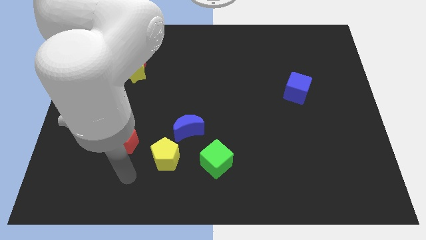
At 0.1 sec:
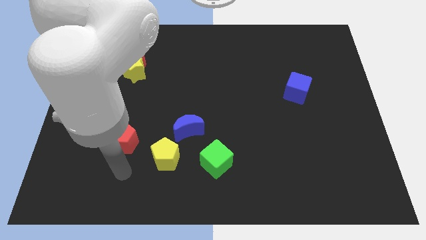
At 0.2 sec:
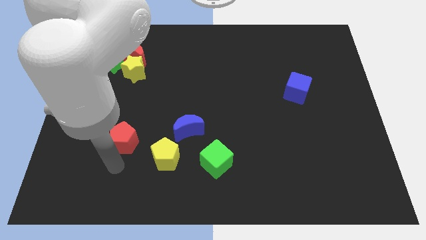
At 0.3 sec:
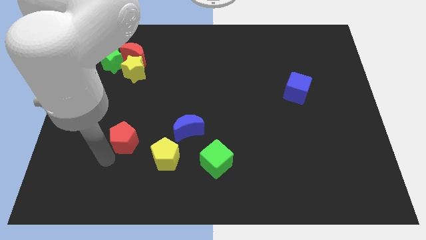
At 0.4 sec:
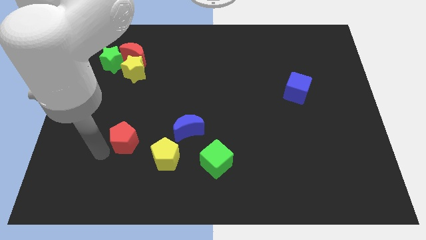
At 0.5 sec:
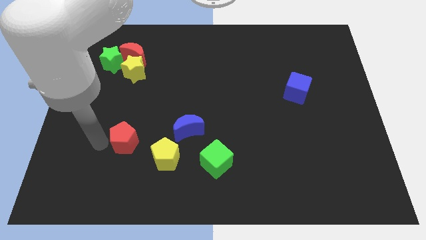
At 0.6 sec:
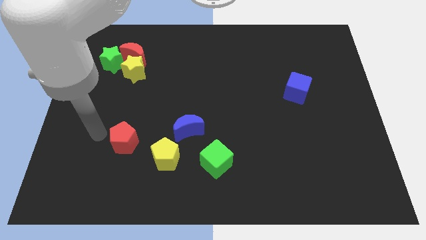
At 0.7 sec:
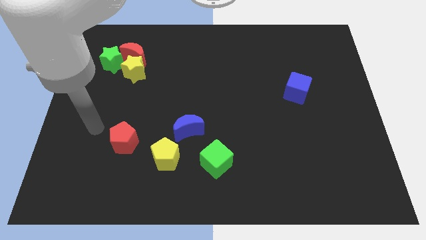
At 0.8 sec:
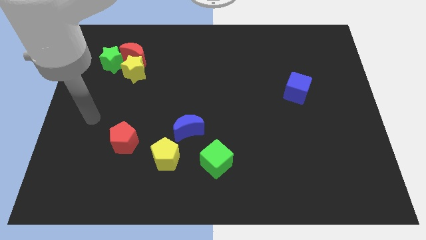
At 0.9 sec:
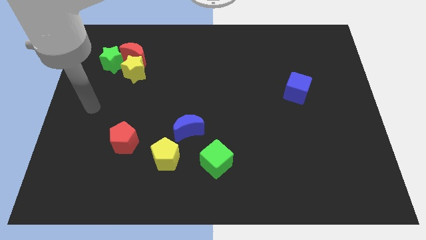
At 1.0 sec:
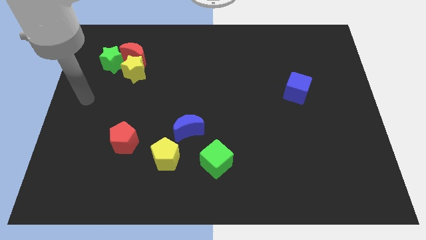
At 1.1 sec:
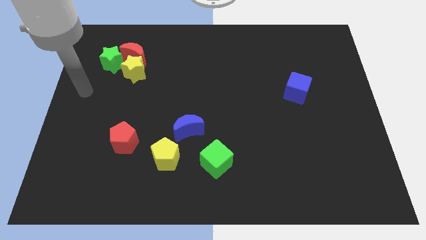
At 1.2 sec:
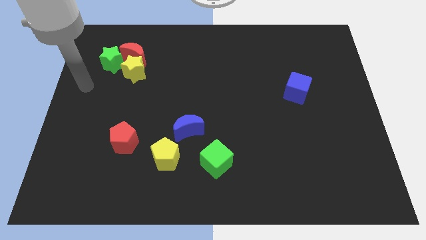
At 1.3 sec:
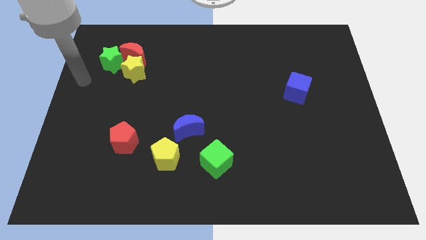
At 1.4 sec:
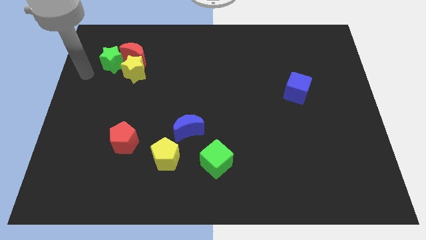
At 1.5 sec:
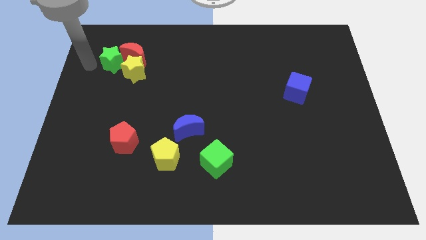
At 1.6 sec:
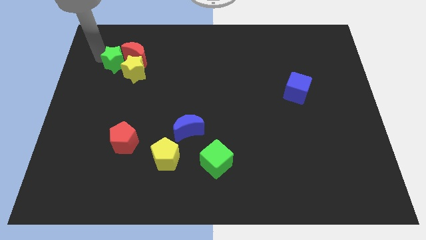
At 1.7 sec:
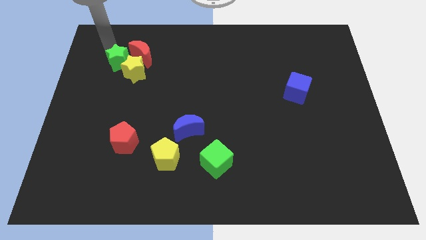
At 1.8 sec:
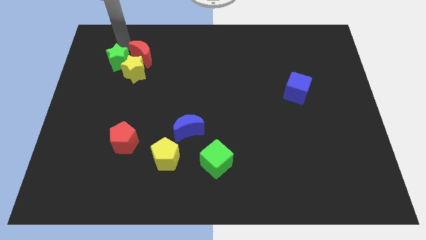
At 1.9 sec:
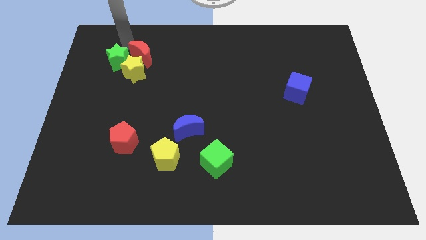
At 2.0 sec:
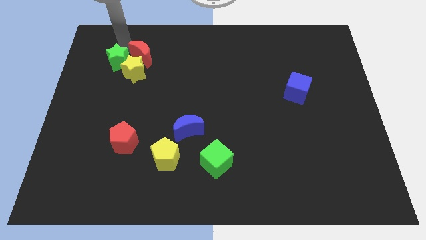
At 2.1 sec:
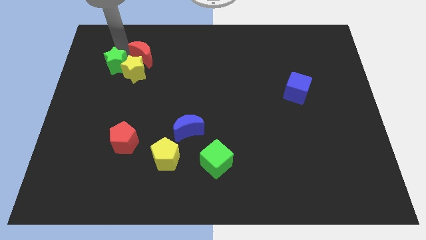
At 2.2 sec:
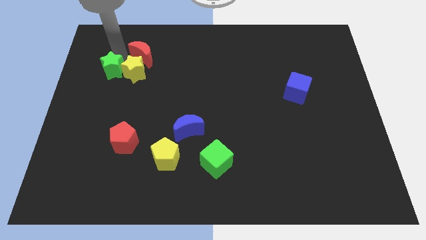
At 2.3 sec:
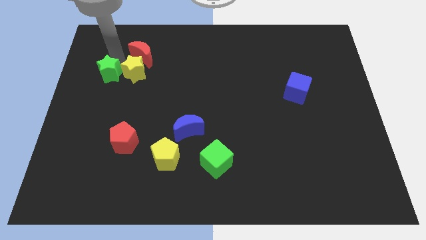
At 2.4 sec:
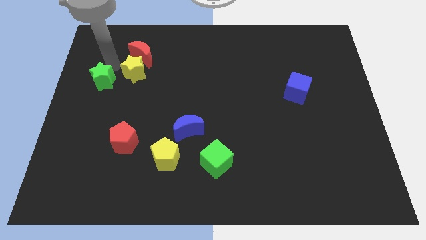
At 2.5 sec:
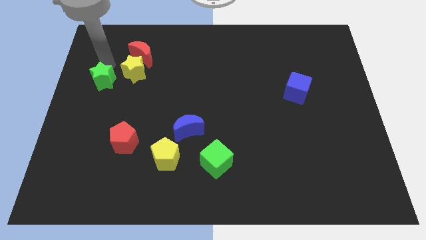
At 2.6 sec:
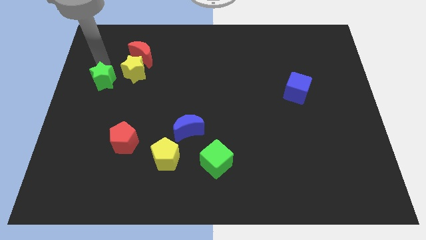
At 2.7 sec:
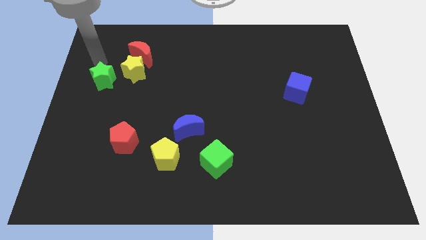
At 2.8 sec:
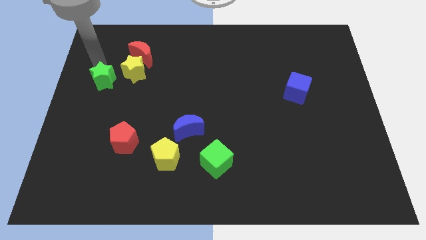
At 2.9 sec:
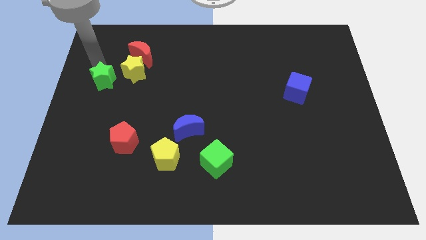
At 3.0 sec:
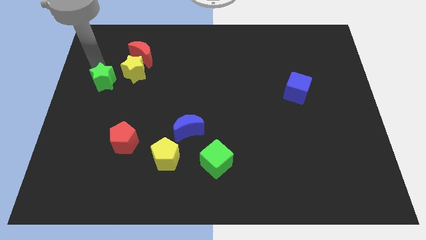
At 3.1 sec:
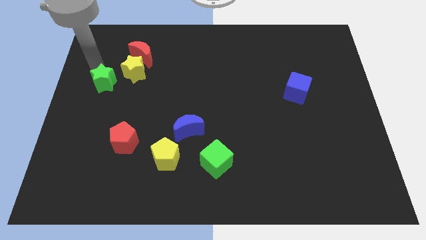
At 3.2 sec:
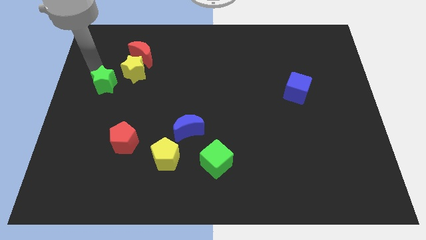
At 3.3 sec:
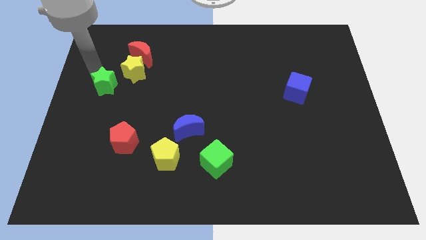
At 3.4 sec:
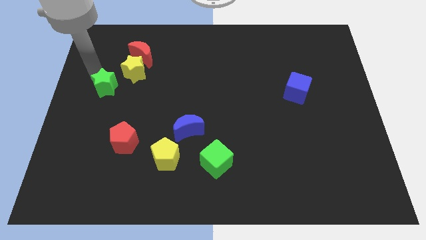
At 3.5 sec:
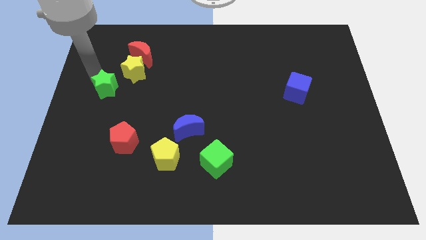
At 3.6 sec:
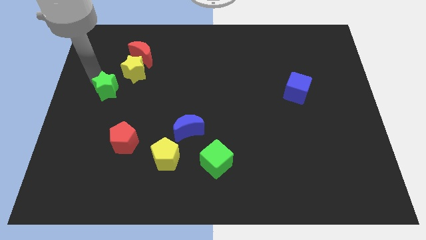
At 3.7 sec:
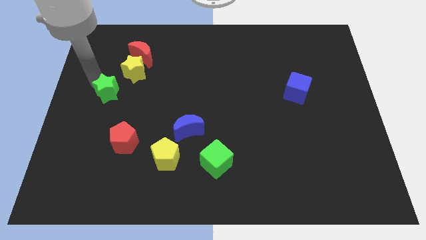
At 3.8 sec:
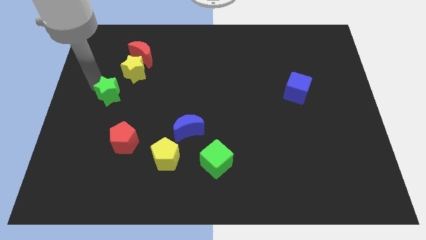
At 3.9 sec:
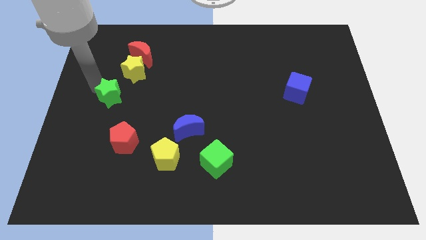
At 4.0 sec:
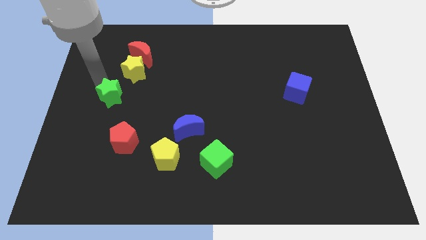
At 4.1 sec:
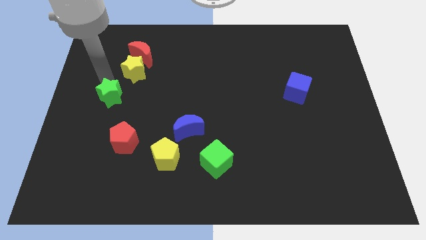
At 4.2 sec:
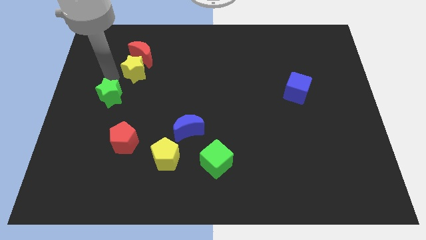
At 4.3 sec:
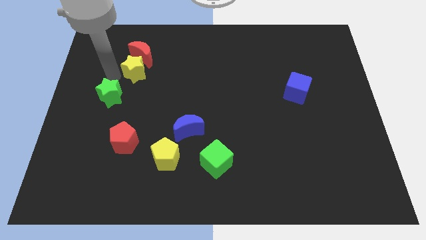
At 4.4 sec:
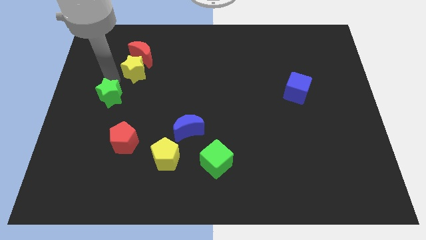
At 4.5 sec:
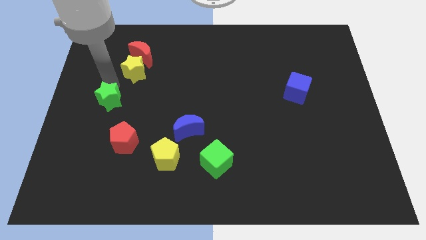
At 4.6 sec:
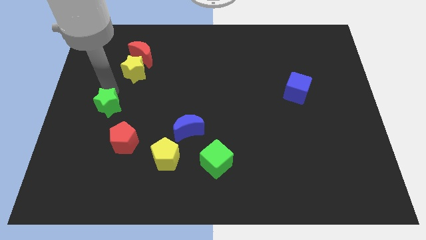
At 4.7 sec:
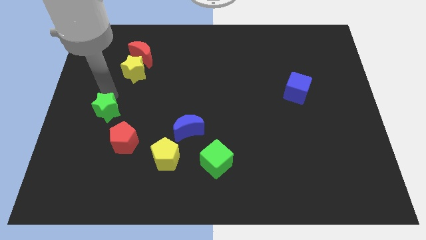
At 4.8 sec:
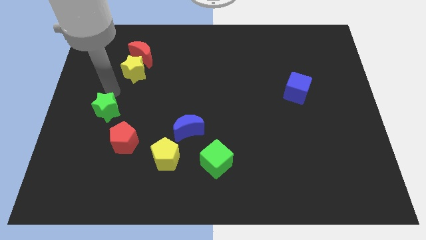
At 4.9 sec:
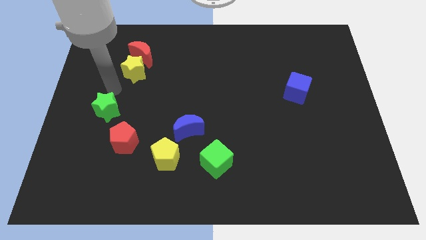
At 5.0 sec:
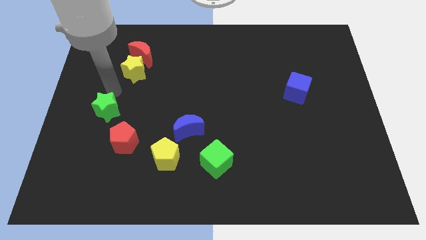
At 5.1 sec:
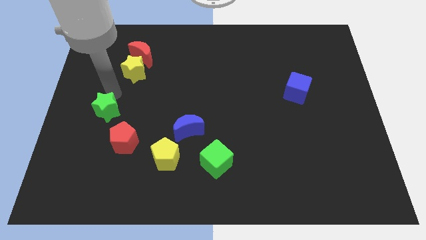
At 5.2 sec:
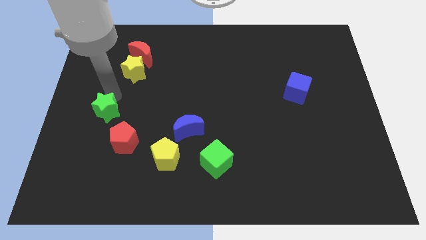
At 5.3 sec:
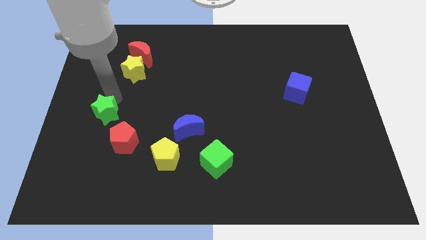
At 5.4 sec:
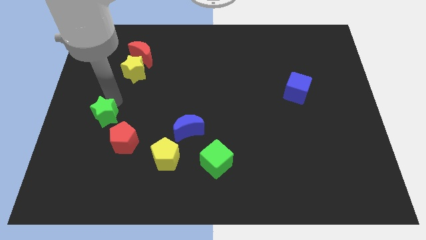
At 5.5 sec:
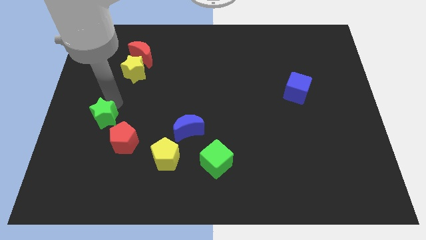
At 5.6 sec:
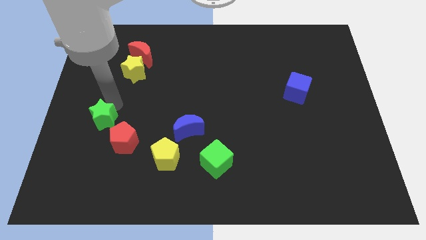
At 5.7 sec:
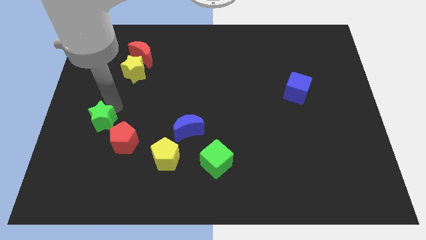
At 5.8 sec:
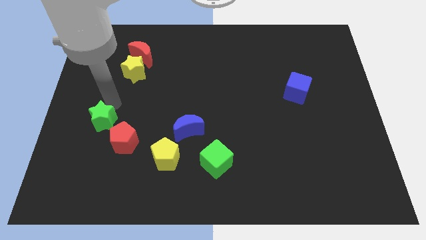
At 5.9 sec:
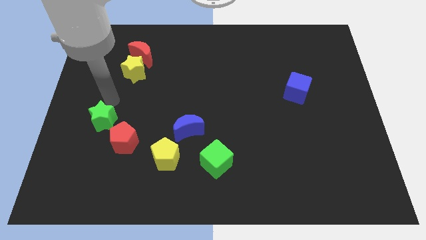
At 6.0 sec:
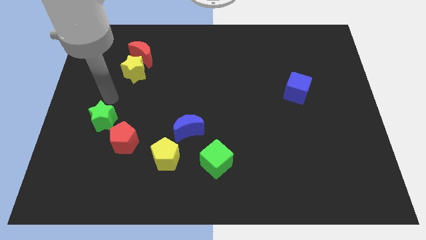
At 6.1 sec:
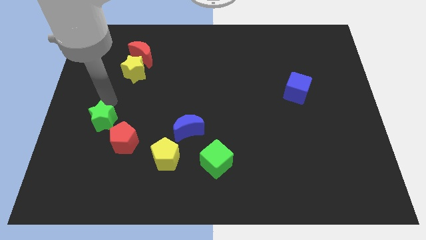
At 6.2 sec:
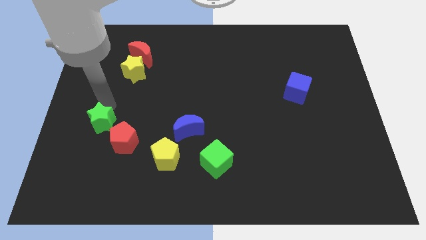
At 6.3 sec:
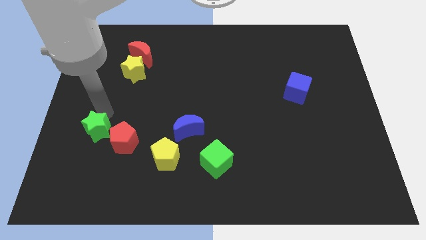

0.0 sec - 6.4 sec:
slide the green star downwards

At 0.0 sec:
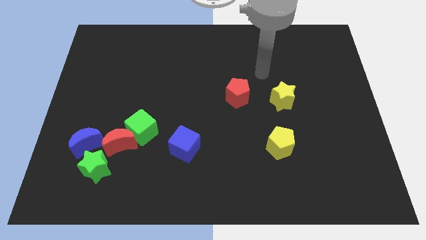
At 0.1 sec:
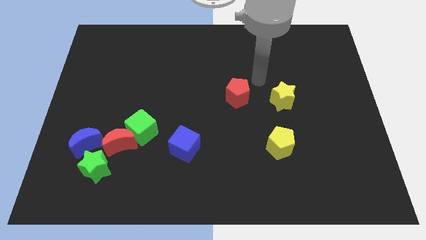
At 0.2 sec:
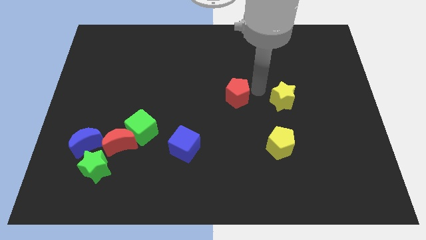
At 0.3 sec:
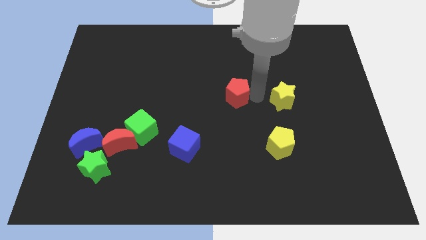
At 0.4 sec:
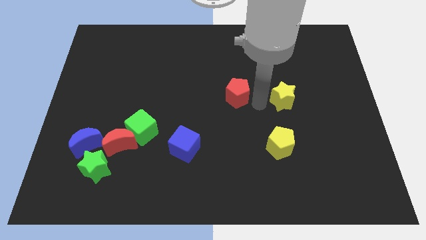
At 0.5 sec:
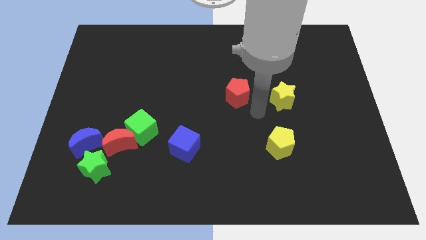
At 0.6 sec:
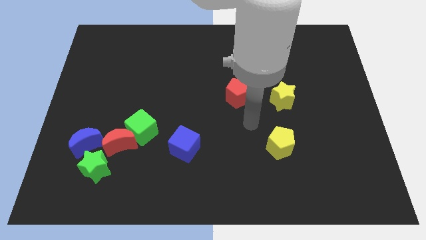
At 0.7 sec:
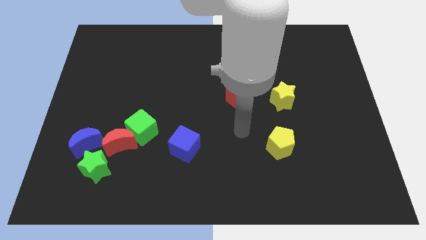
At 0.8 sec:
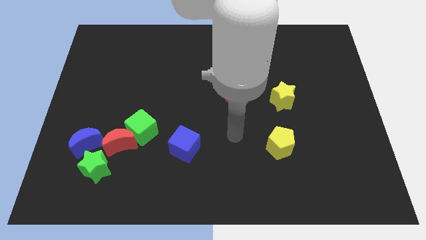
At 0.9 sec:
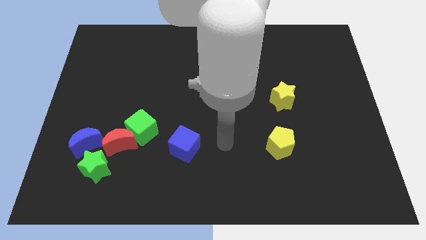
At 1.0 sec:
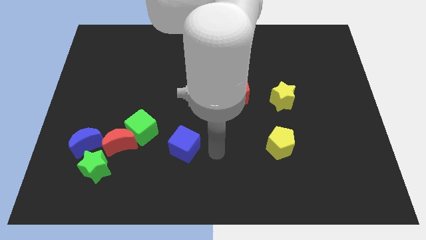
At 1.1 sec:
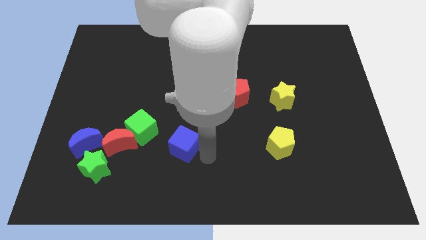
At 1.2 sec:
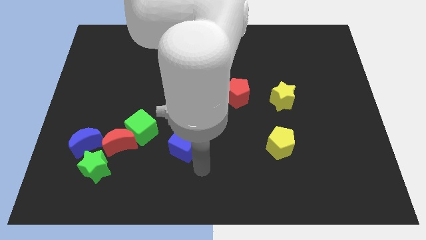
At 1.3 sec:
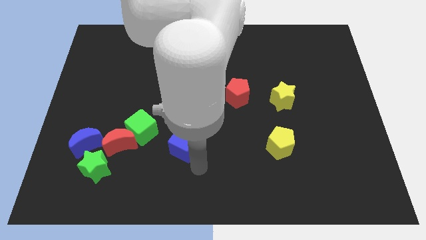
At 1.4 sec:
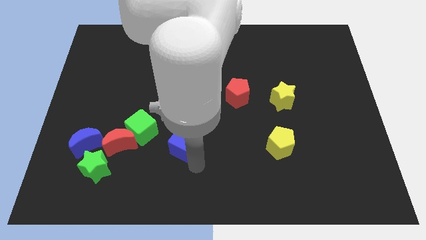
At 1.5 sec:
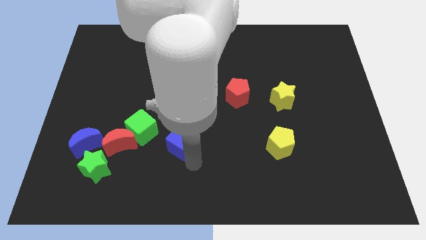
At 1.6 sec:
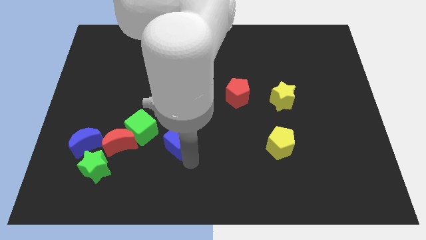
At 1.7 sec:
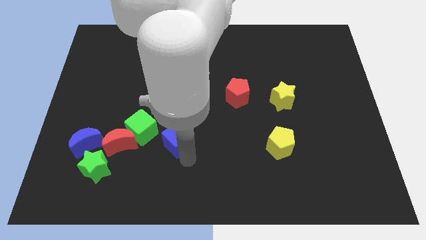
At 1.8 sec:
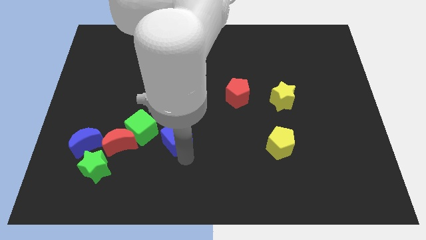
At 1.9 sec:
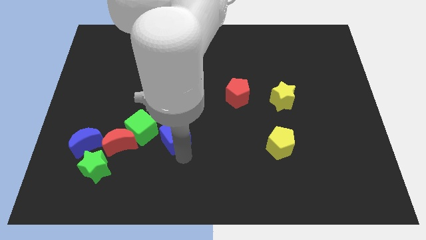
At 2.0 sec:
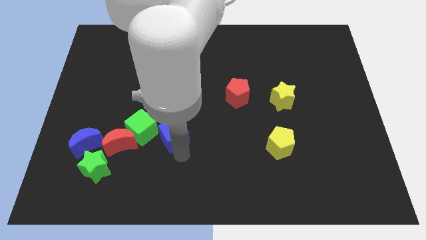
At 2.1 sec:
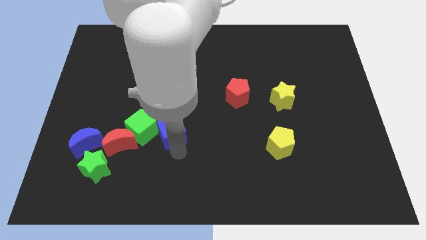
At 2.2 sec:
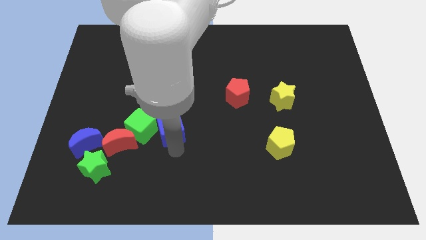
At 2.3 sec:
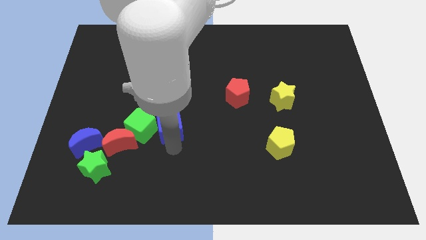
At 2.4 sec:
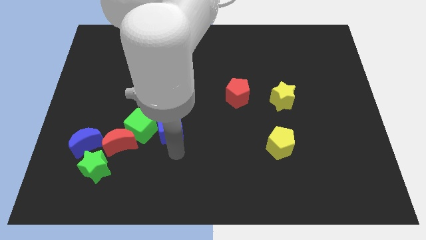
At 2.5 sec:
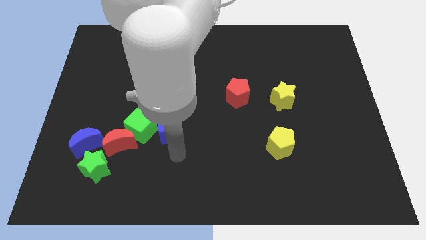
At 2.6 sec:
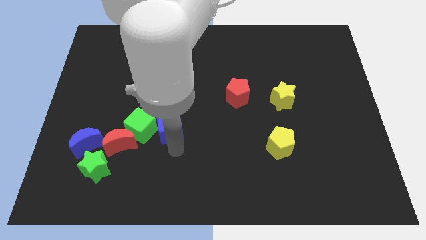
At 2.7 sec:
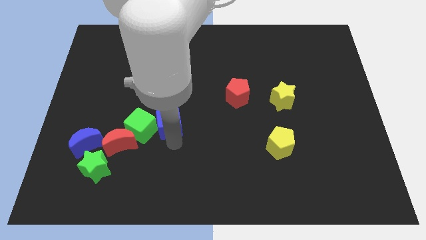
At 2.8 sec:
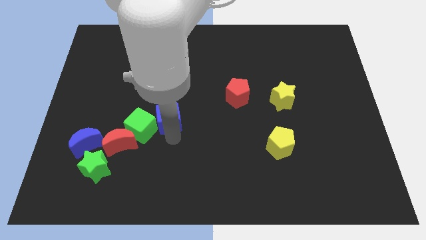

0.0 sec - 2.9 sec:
slightly move the blue cube diagonally upwards and left
